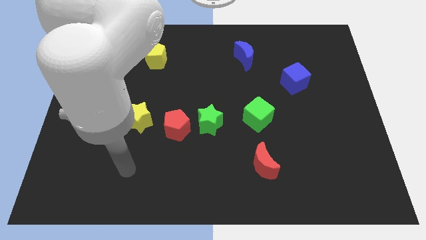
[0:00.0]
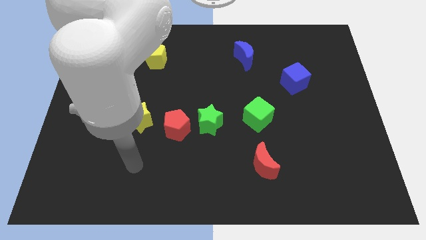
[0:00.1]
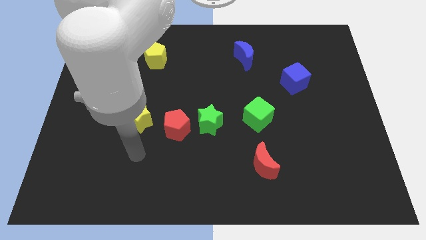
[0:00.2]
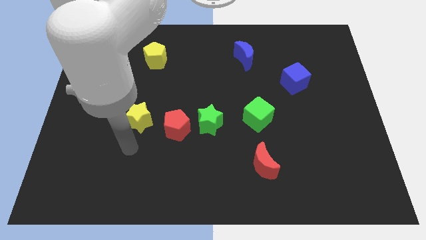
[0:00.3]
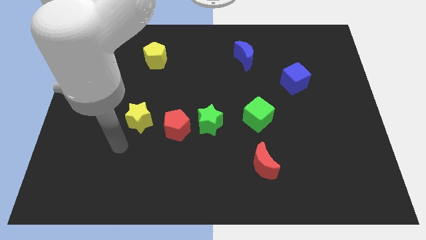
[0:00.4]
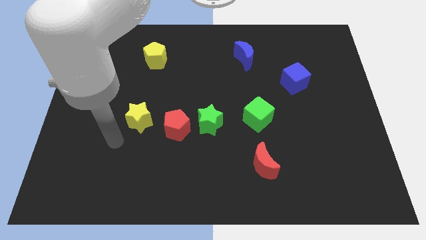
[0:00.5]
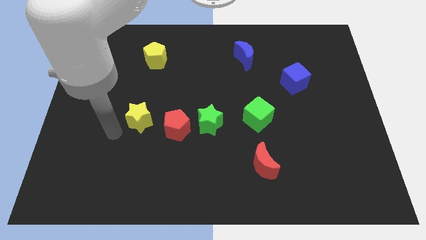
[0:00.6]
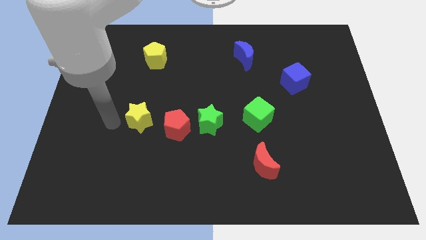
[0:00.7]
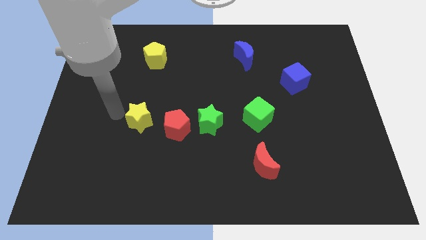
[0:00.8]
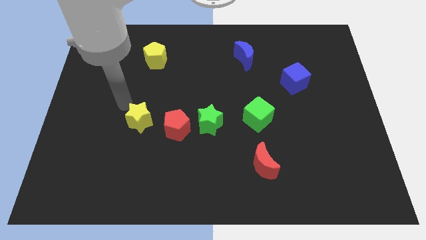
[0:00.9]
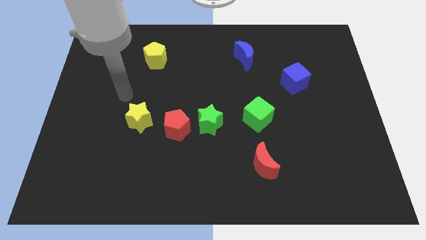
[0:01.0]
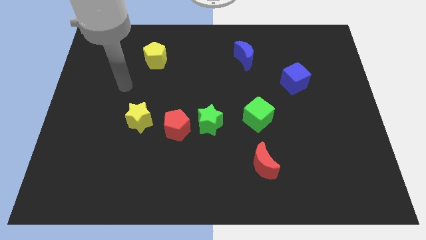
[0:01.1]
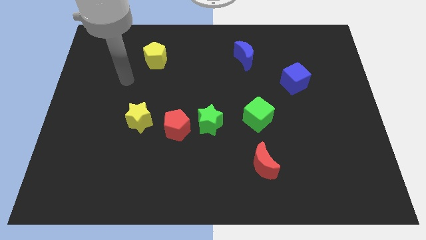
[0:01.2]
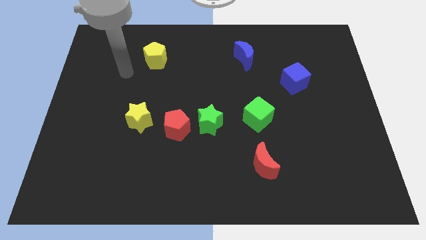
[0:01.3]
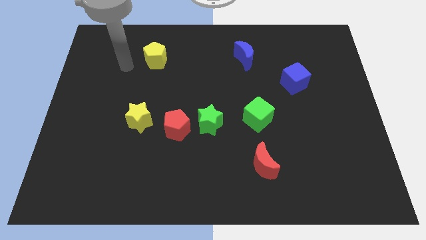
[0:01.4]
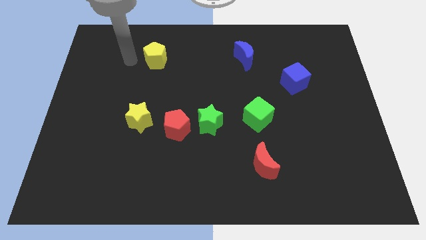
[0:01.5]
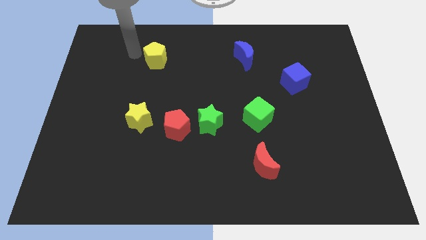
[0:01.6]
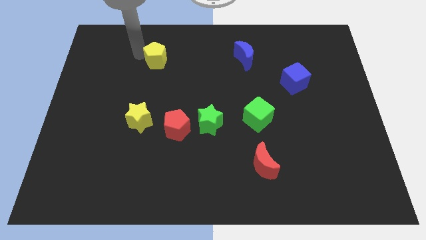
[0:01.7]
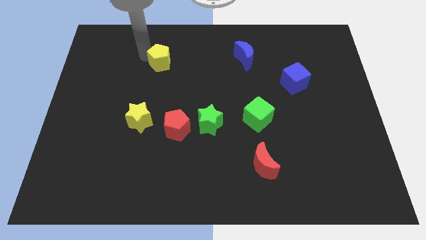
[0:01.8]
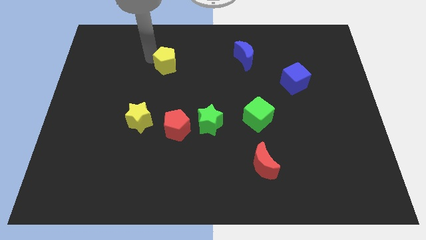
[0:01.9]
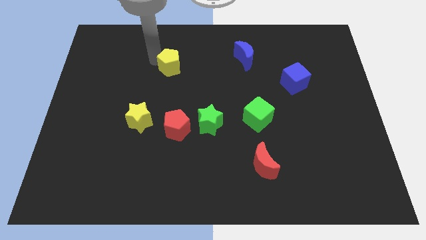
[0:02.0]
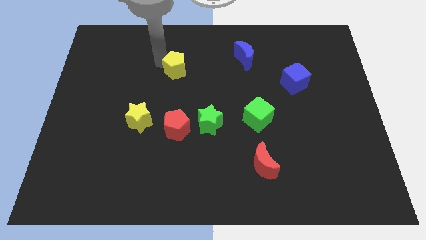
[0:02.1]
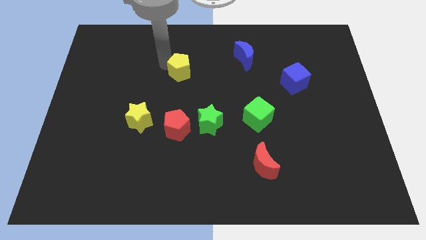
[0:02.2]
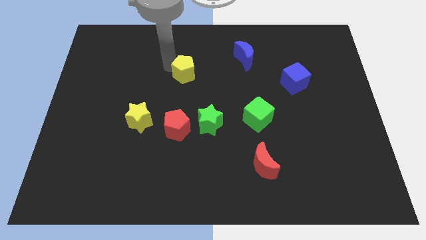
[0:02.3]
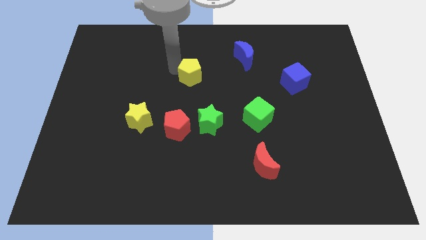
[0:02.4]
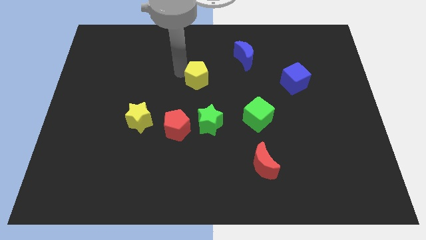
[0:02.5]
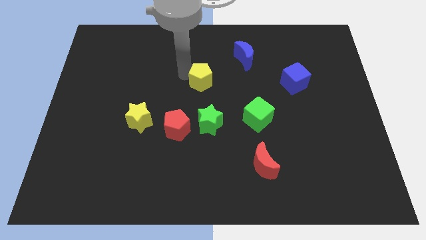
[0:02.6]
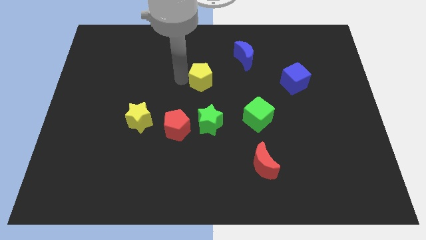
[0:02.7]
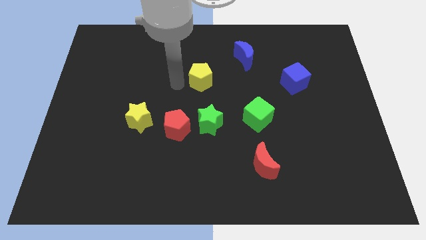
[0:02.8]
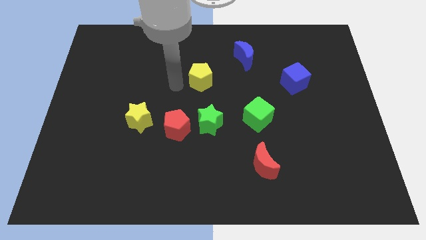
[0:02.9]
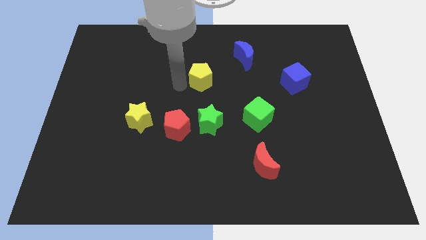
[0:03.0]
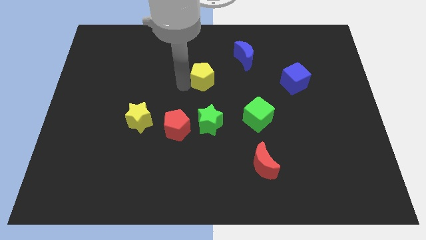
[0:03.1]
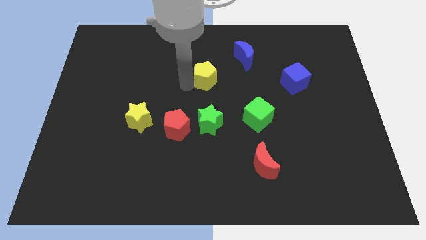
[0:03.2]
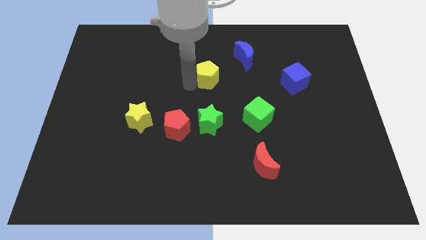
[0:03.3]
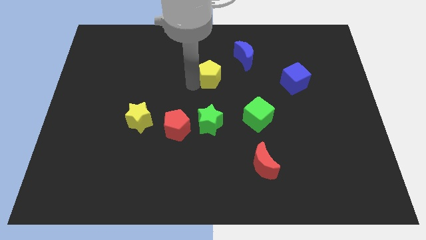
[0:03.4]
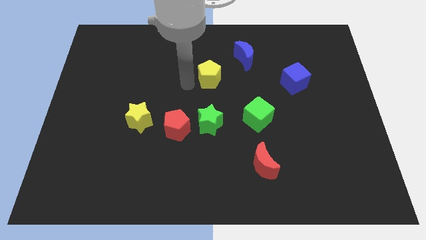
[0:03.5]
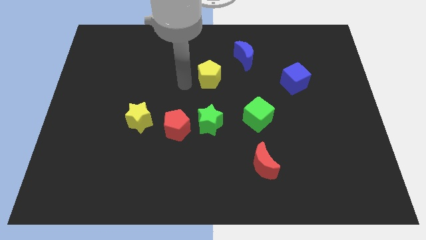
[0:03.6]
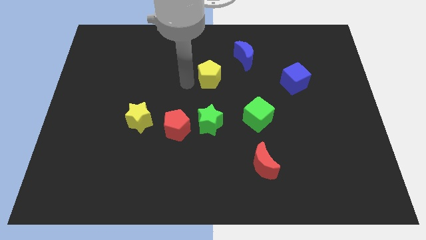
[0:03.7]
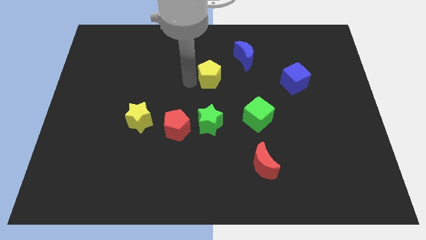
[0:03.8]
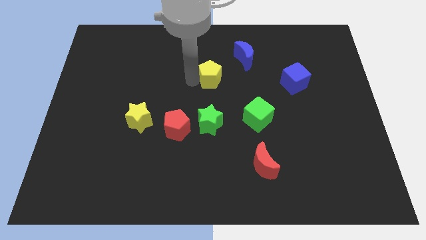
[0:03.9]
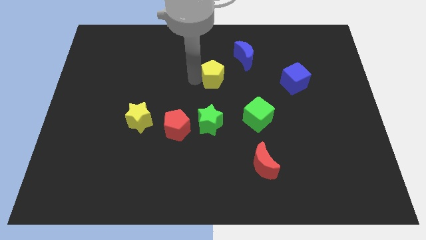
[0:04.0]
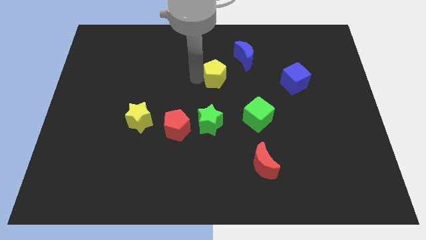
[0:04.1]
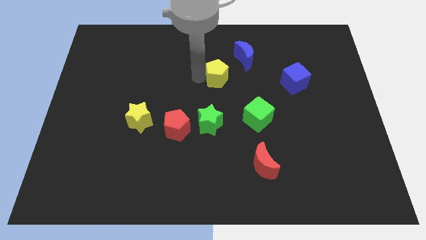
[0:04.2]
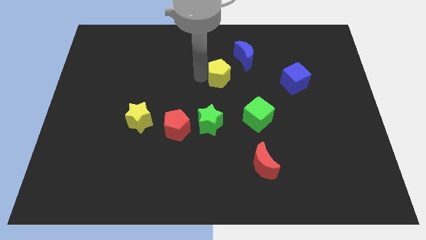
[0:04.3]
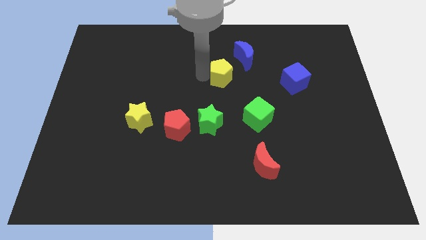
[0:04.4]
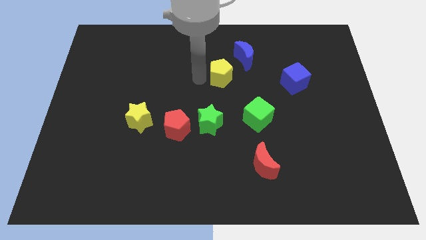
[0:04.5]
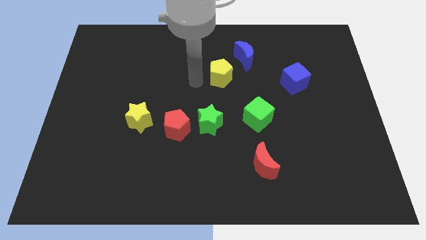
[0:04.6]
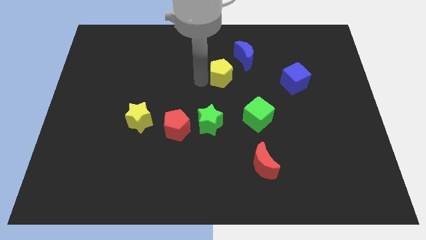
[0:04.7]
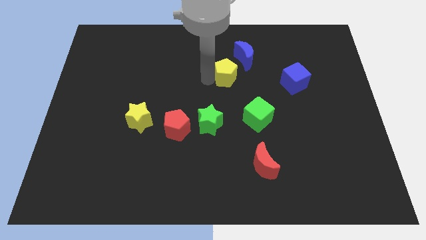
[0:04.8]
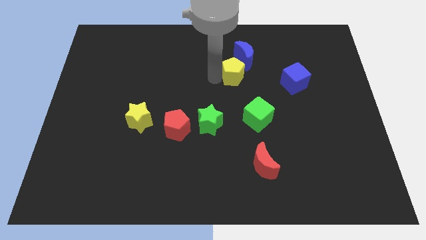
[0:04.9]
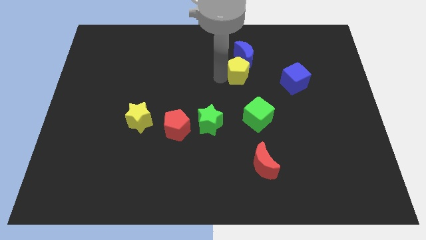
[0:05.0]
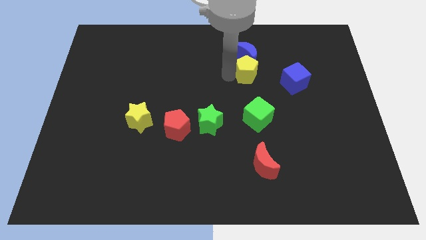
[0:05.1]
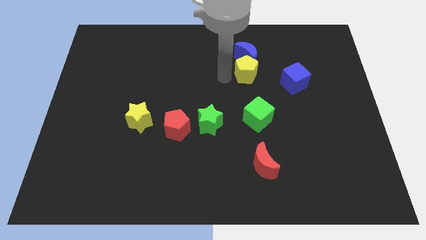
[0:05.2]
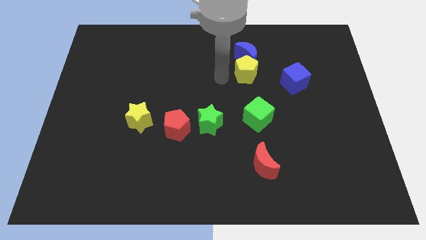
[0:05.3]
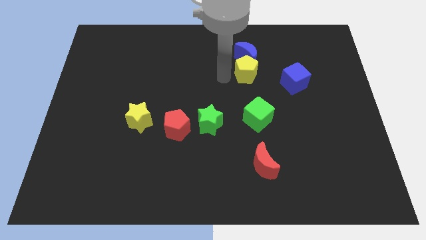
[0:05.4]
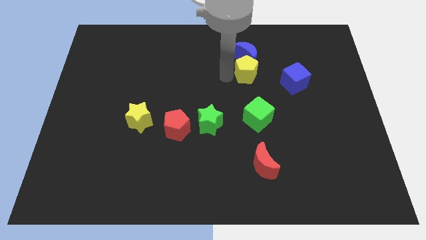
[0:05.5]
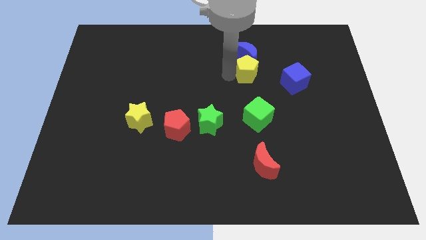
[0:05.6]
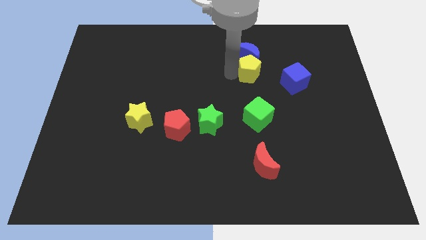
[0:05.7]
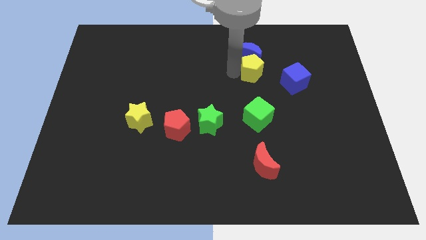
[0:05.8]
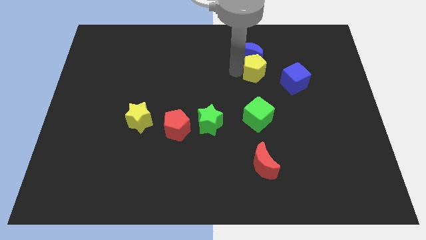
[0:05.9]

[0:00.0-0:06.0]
move the yellow pentagon diagonally up and to the left of the blue cube
